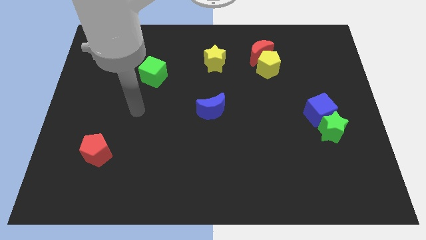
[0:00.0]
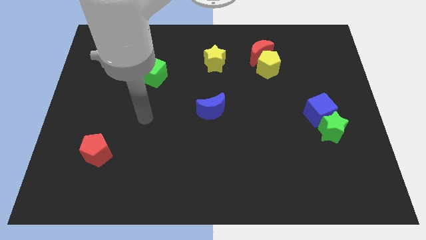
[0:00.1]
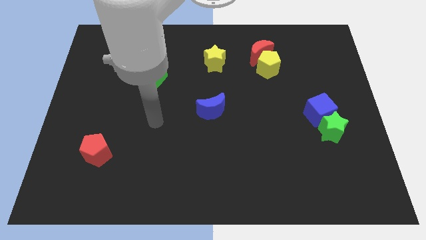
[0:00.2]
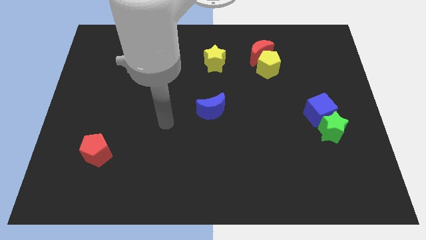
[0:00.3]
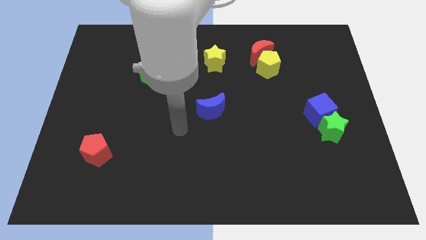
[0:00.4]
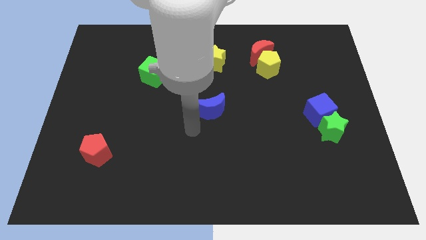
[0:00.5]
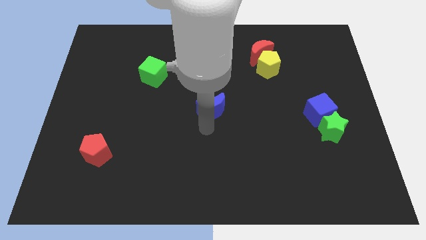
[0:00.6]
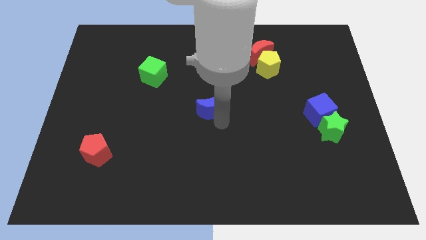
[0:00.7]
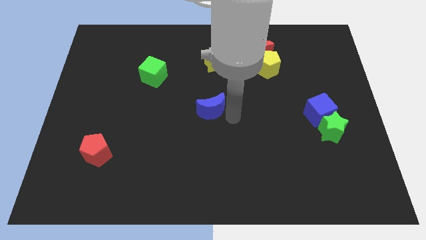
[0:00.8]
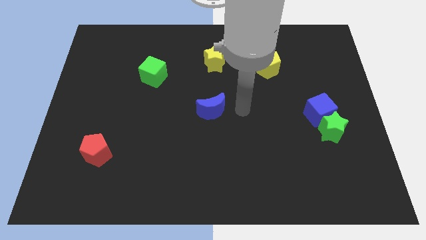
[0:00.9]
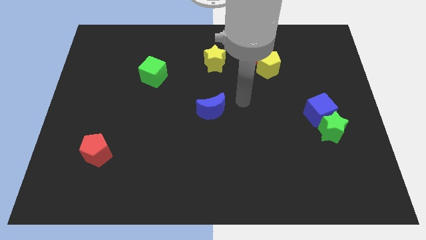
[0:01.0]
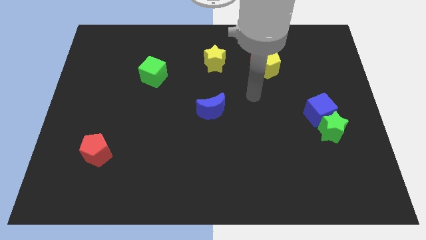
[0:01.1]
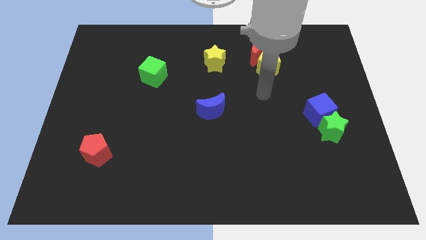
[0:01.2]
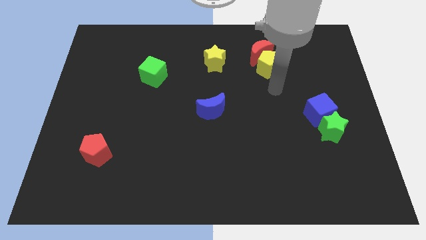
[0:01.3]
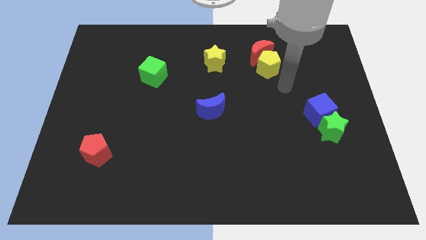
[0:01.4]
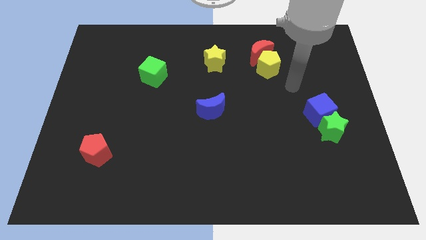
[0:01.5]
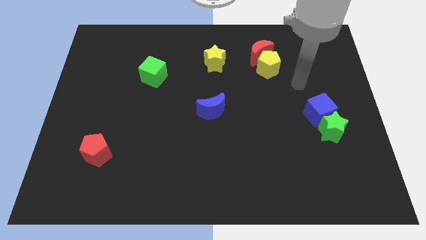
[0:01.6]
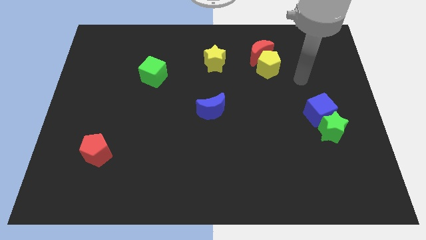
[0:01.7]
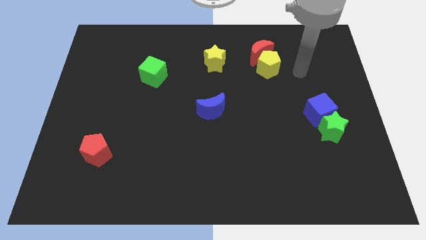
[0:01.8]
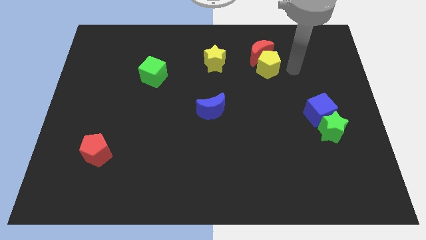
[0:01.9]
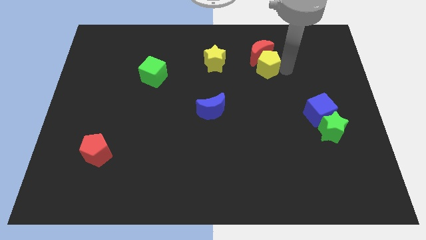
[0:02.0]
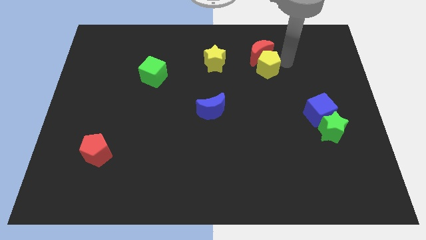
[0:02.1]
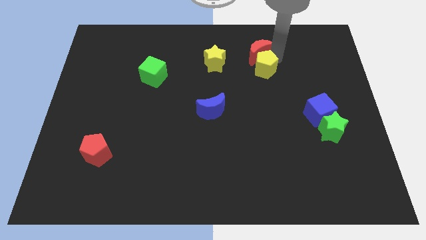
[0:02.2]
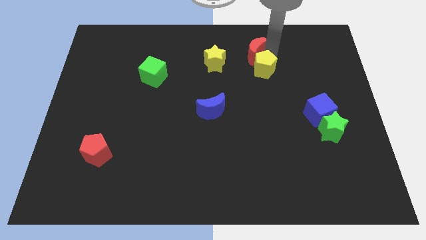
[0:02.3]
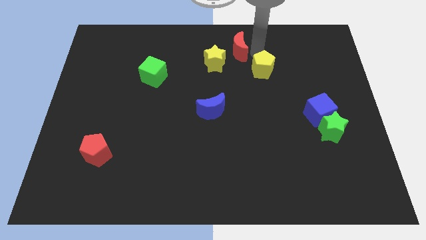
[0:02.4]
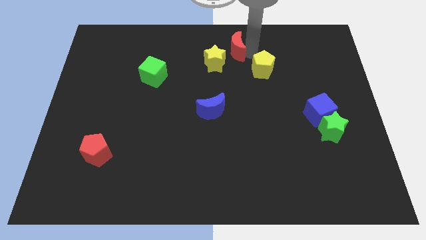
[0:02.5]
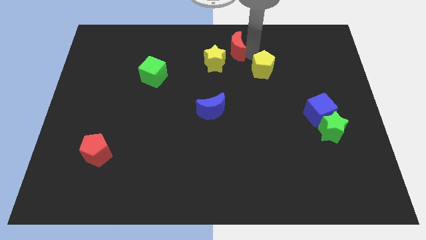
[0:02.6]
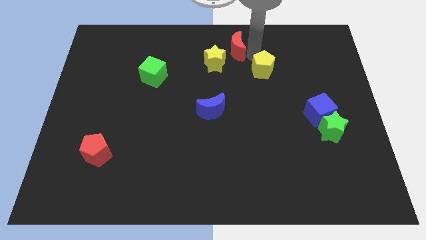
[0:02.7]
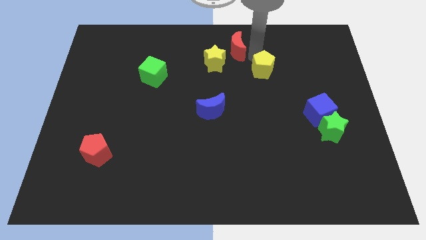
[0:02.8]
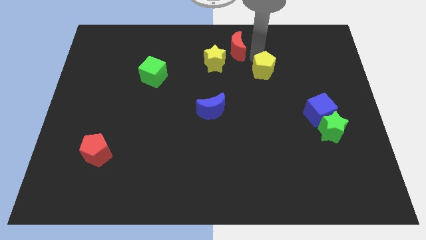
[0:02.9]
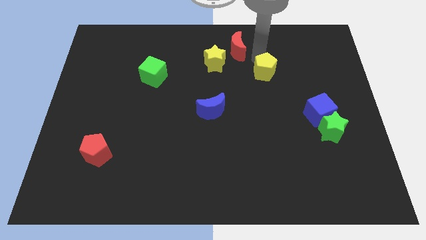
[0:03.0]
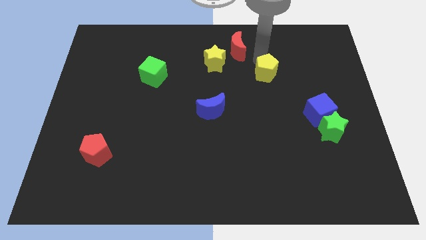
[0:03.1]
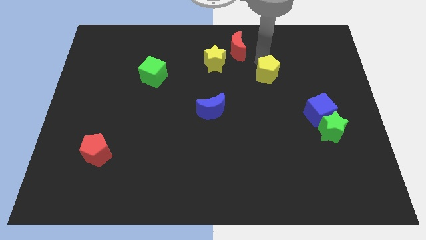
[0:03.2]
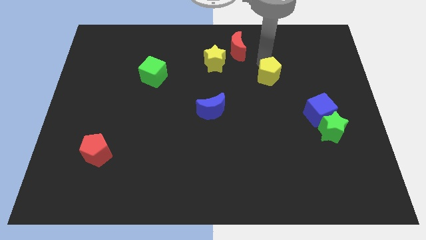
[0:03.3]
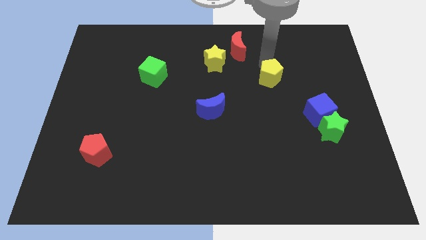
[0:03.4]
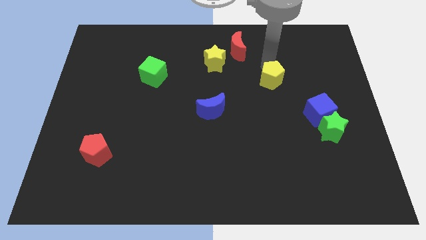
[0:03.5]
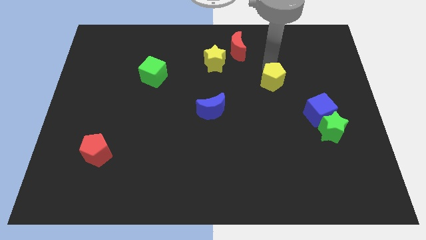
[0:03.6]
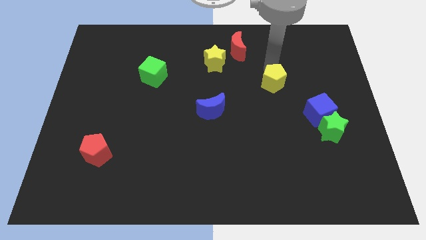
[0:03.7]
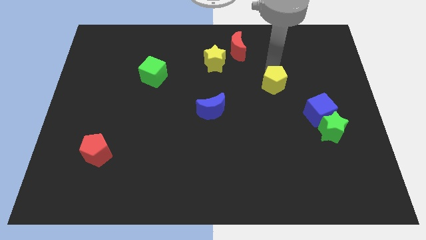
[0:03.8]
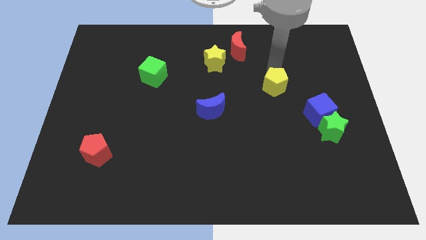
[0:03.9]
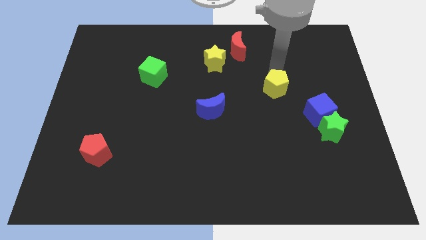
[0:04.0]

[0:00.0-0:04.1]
move the yellow pentagon a bit down

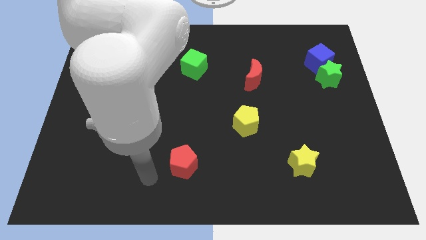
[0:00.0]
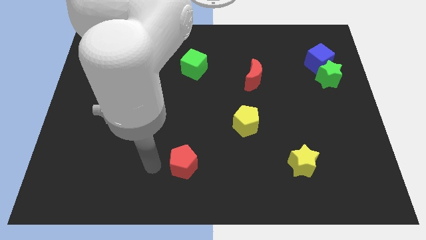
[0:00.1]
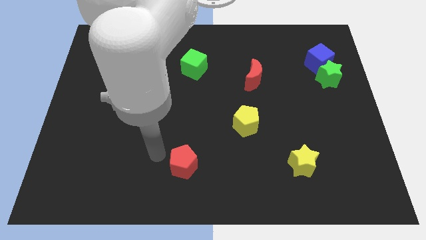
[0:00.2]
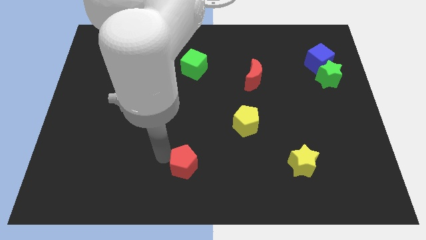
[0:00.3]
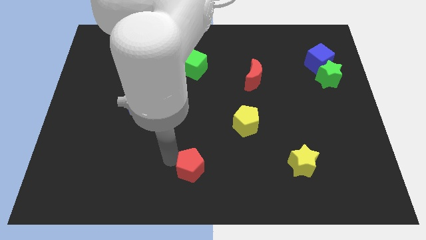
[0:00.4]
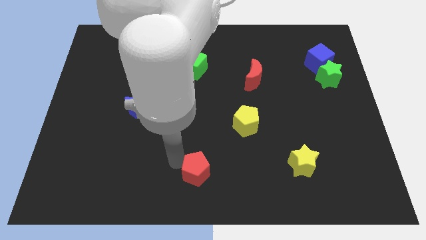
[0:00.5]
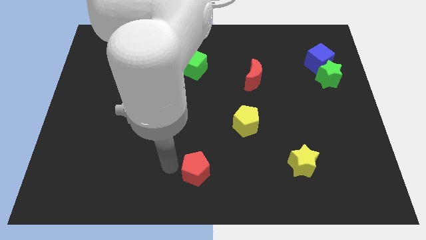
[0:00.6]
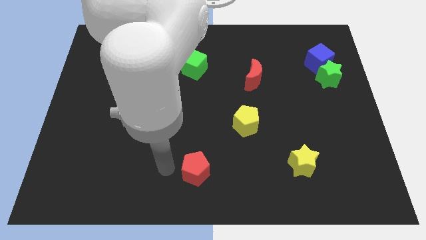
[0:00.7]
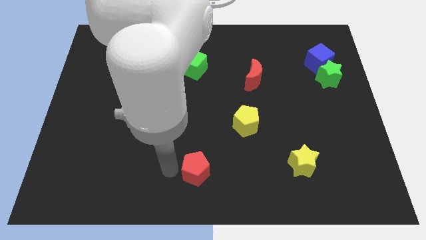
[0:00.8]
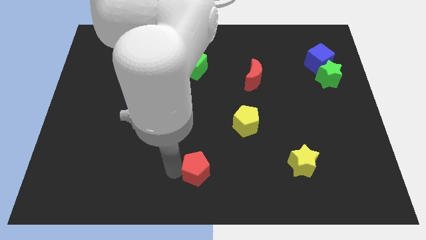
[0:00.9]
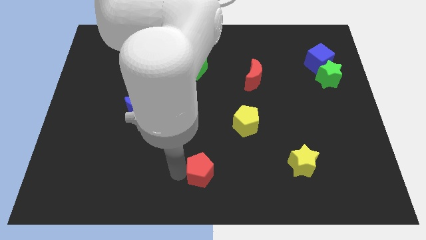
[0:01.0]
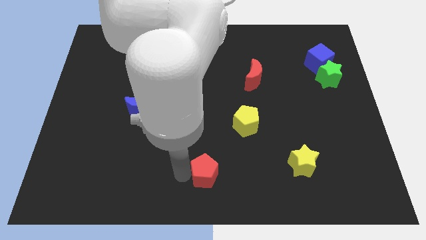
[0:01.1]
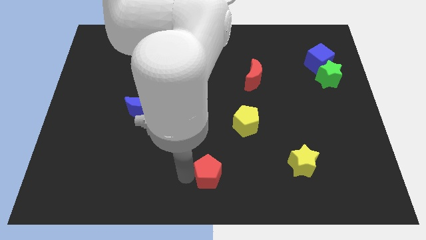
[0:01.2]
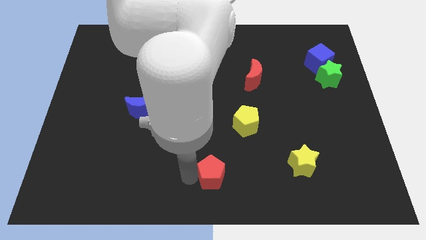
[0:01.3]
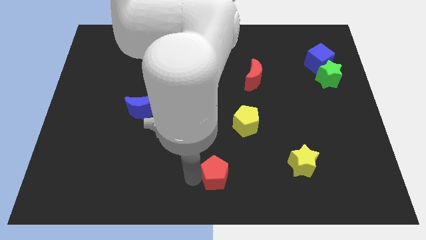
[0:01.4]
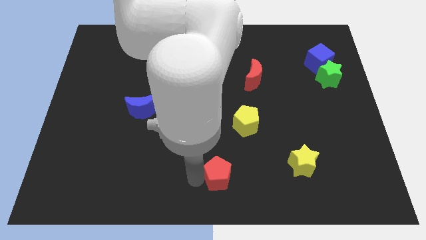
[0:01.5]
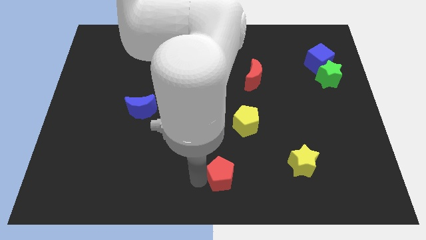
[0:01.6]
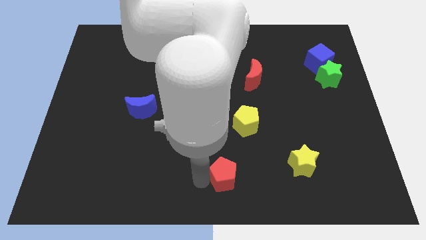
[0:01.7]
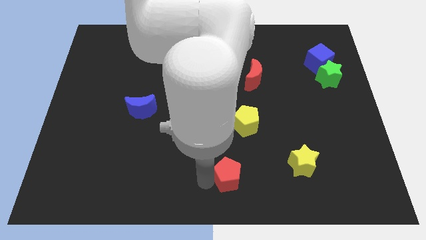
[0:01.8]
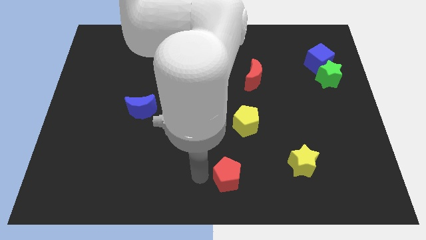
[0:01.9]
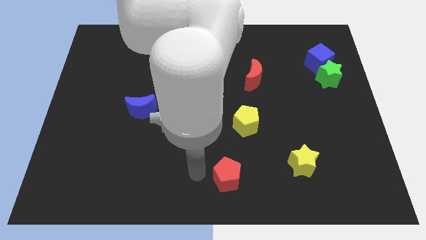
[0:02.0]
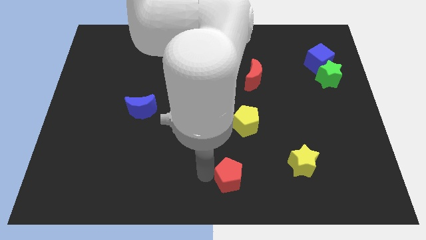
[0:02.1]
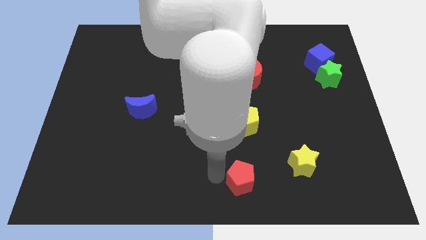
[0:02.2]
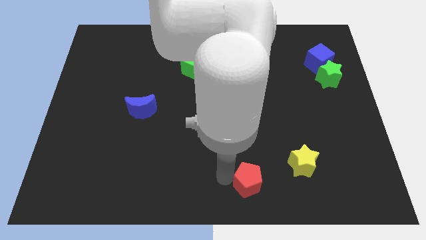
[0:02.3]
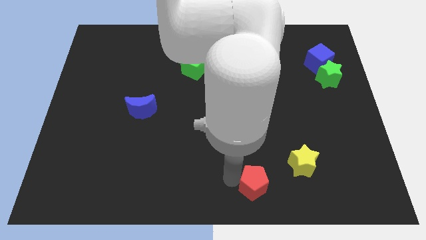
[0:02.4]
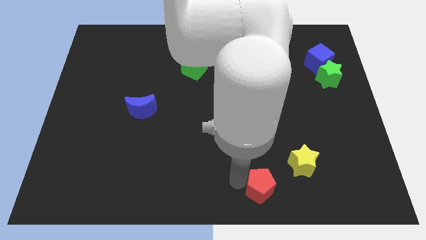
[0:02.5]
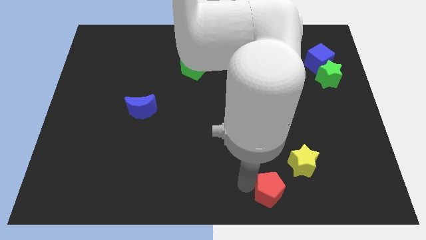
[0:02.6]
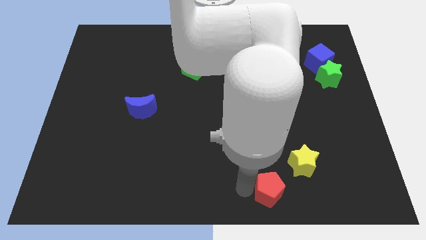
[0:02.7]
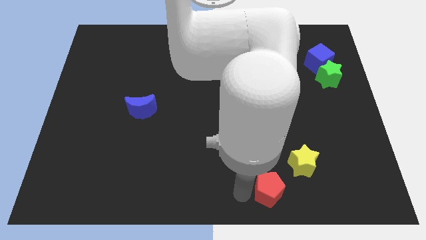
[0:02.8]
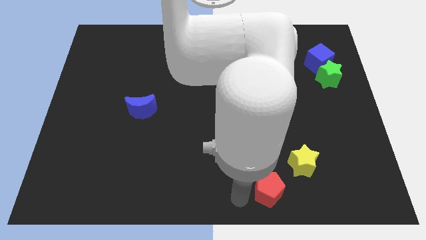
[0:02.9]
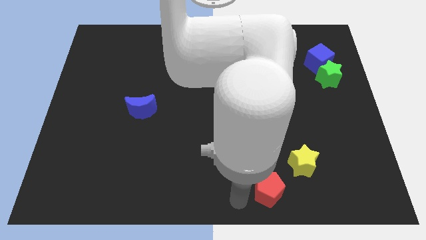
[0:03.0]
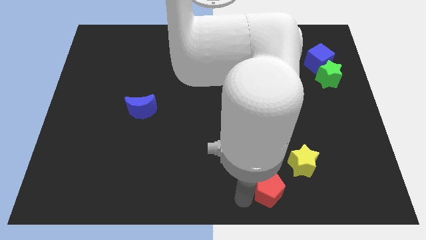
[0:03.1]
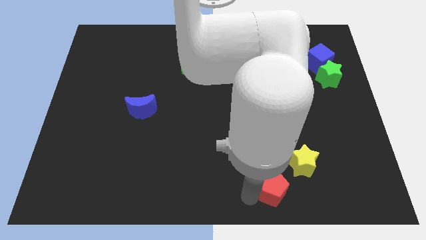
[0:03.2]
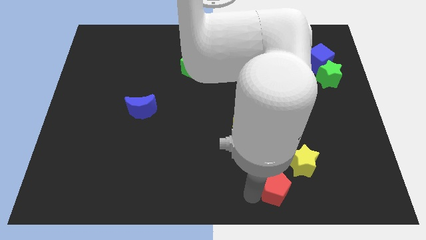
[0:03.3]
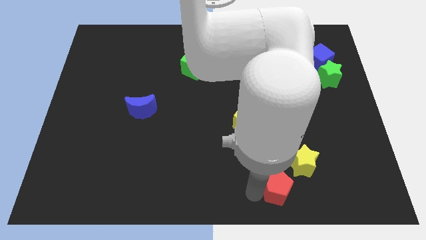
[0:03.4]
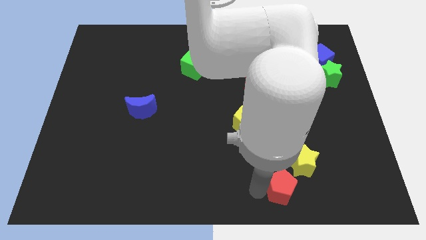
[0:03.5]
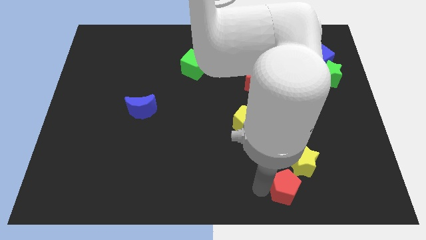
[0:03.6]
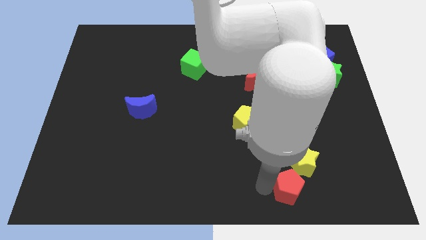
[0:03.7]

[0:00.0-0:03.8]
slide the red pentagon right
